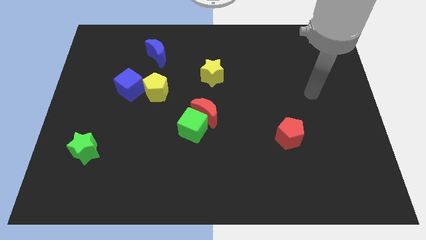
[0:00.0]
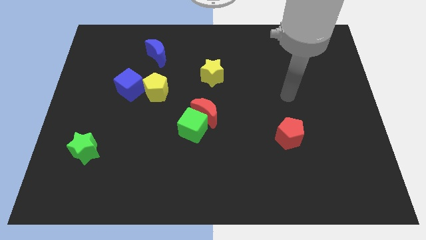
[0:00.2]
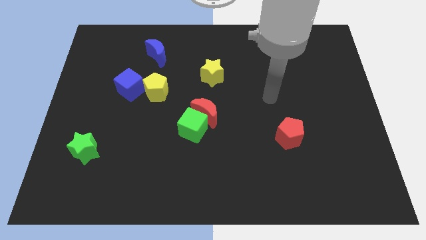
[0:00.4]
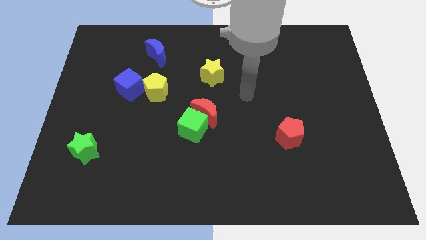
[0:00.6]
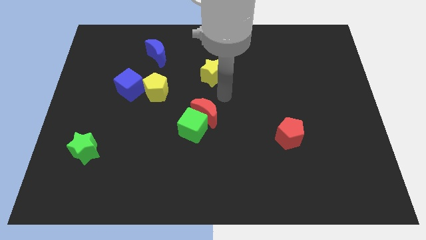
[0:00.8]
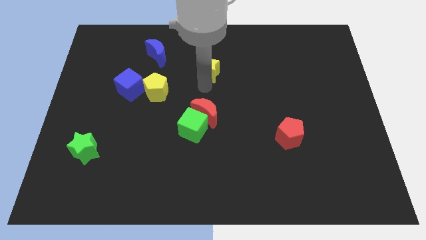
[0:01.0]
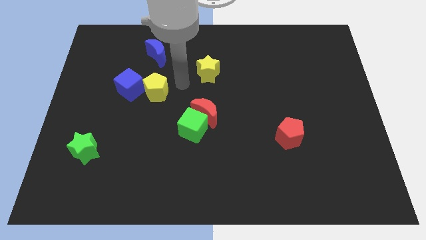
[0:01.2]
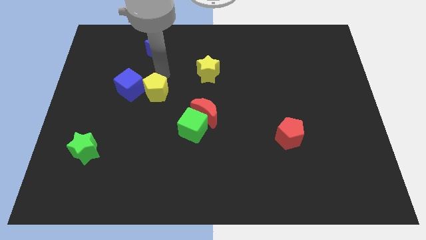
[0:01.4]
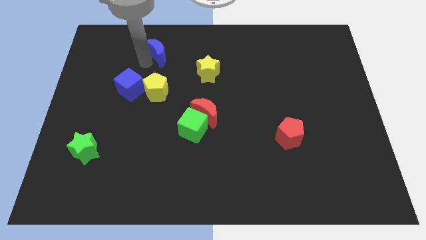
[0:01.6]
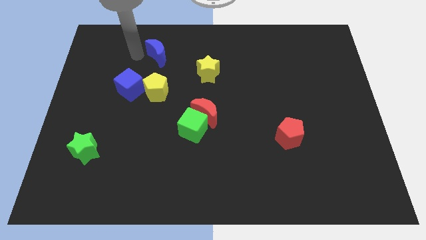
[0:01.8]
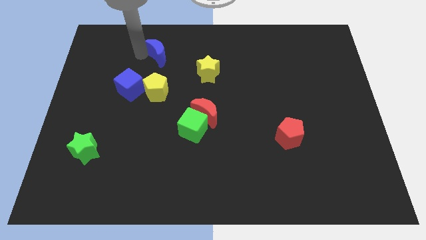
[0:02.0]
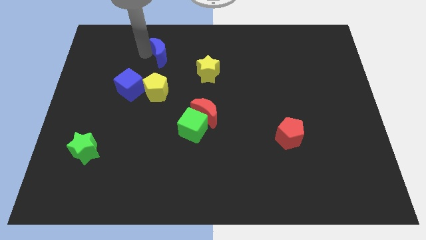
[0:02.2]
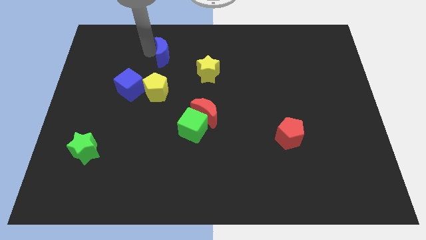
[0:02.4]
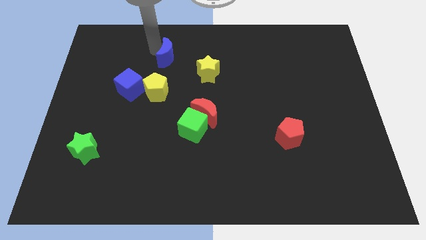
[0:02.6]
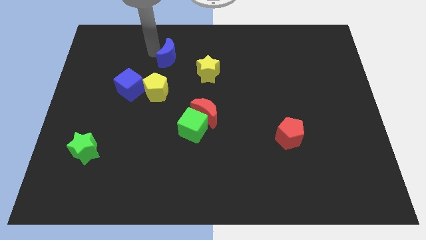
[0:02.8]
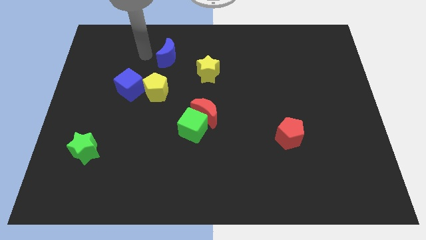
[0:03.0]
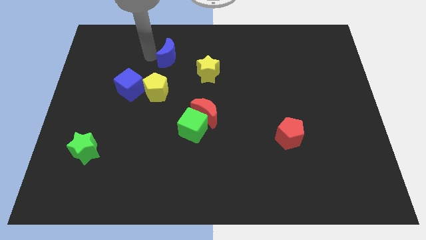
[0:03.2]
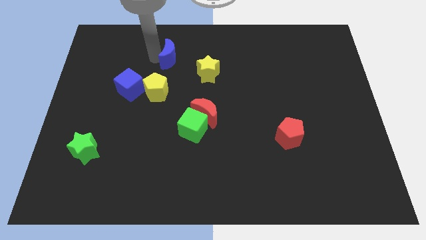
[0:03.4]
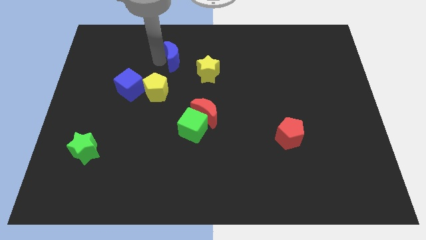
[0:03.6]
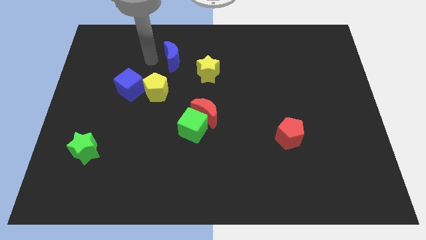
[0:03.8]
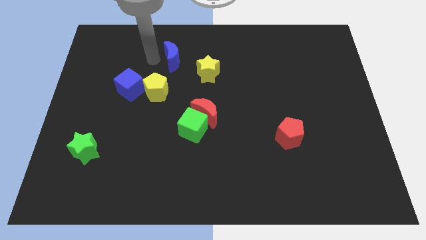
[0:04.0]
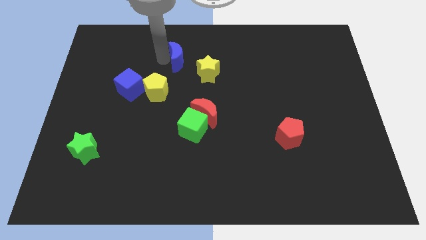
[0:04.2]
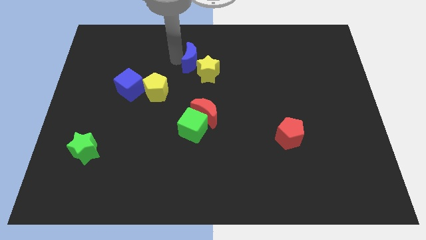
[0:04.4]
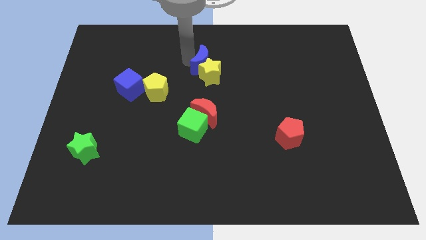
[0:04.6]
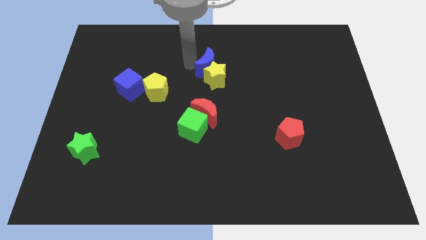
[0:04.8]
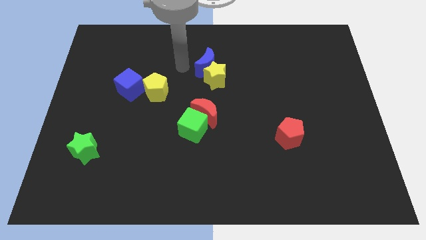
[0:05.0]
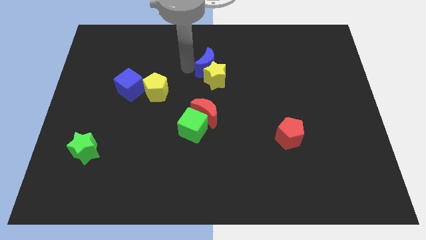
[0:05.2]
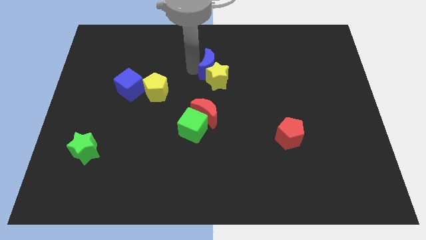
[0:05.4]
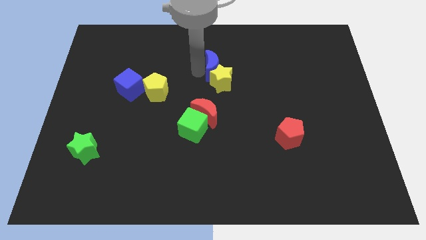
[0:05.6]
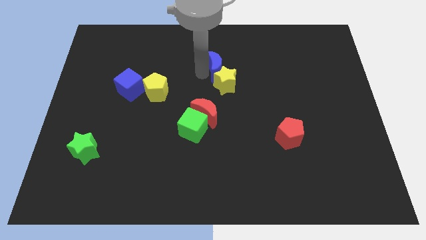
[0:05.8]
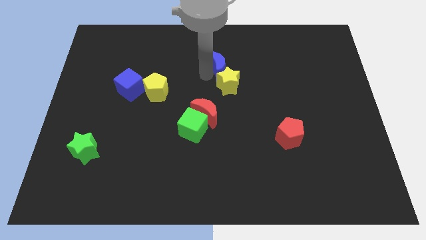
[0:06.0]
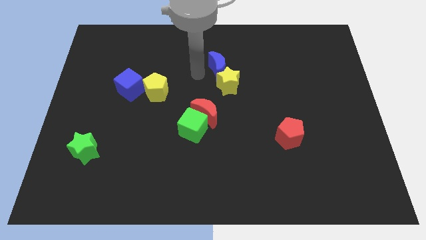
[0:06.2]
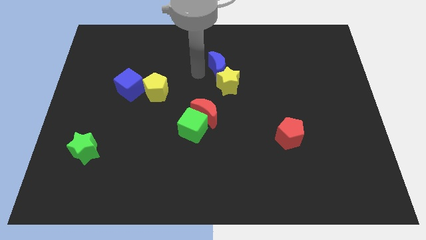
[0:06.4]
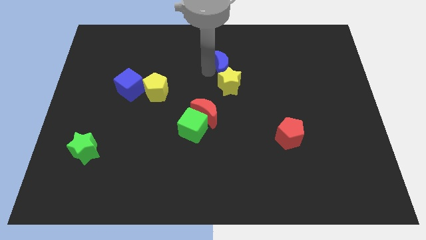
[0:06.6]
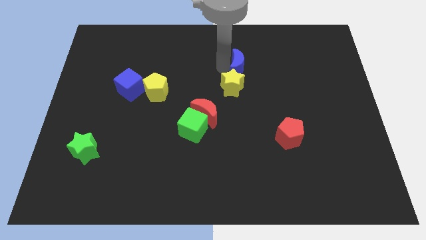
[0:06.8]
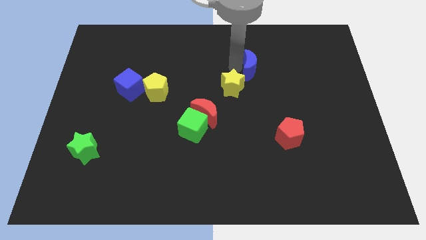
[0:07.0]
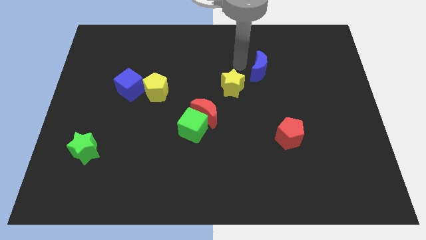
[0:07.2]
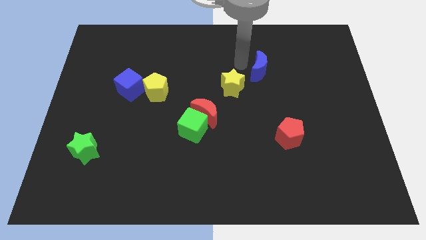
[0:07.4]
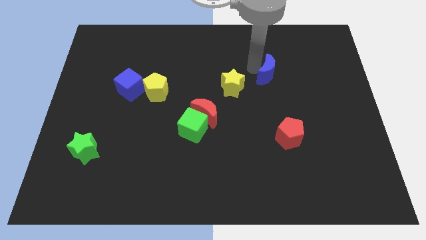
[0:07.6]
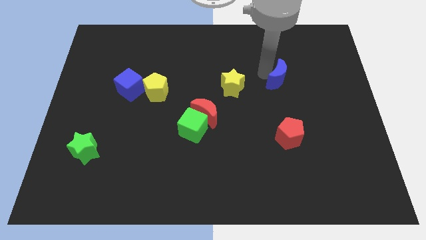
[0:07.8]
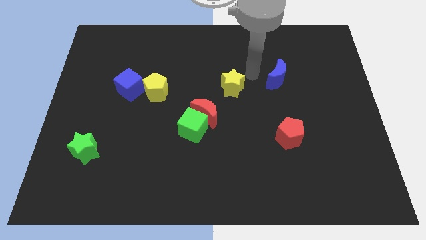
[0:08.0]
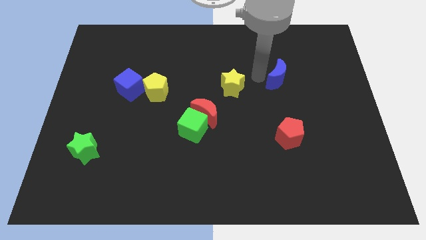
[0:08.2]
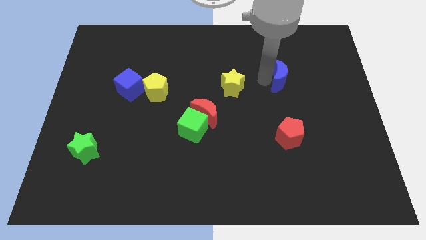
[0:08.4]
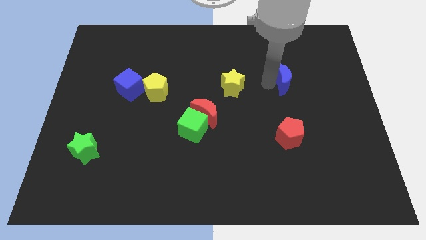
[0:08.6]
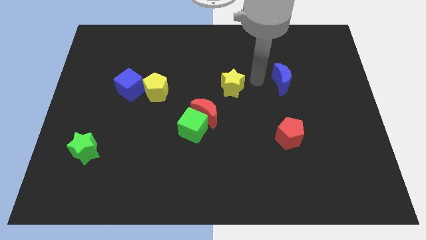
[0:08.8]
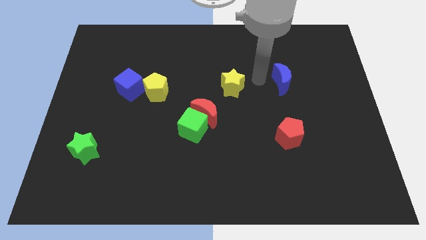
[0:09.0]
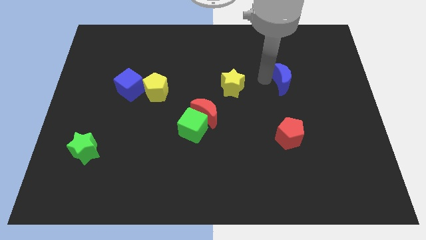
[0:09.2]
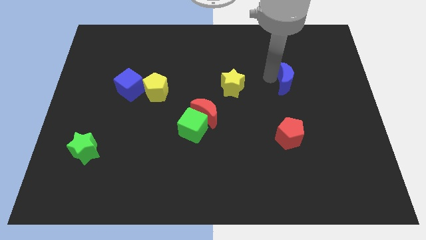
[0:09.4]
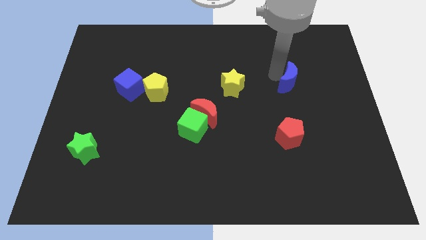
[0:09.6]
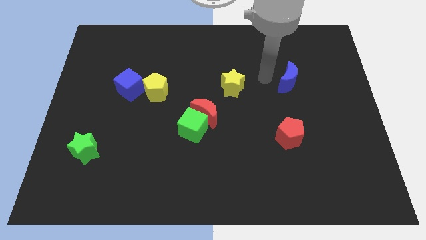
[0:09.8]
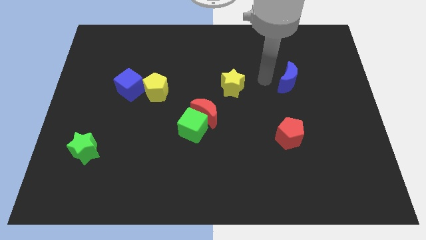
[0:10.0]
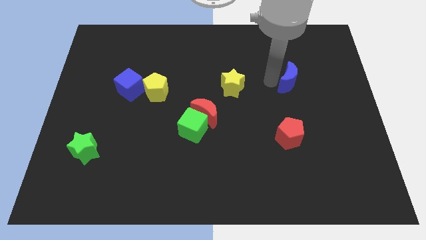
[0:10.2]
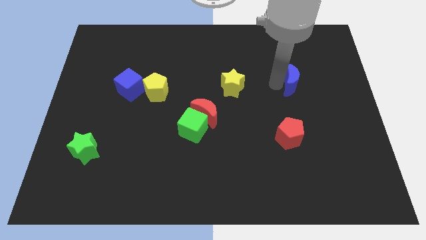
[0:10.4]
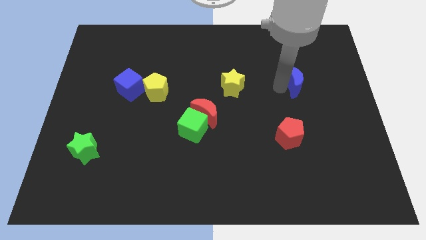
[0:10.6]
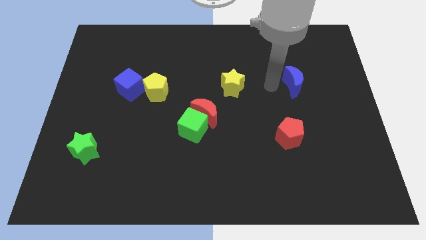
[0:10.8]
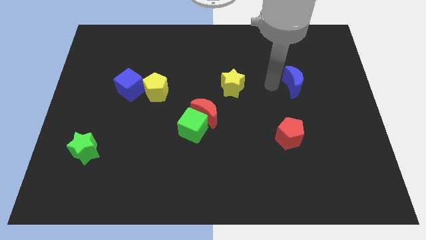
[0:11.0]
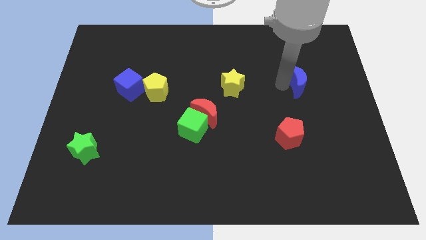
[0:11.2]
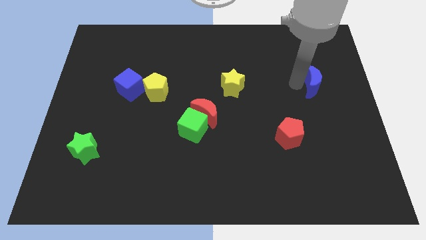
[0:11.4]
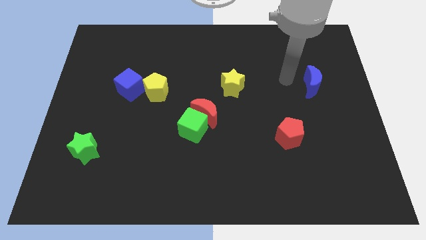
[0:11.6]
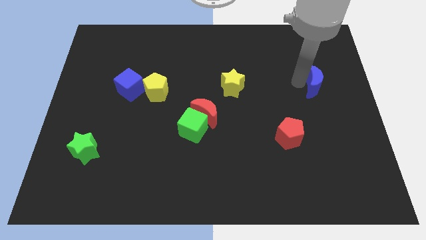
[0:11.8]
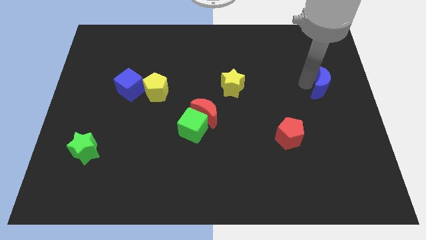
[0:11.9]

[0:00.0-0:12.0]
slide the blue moon to the right side of the board
